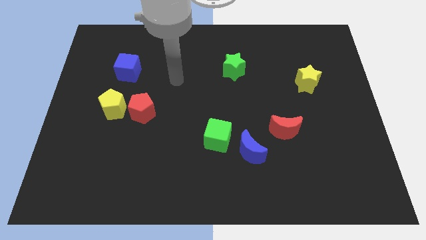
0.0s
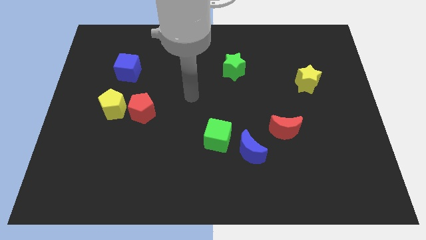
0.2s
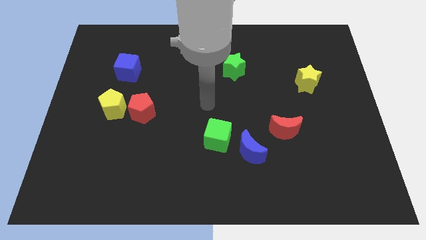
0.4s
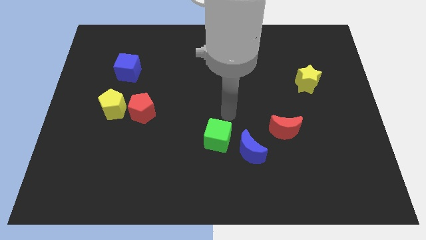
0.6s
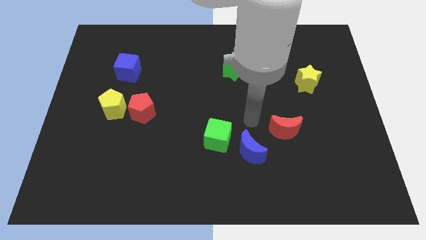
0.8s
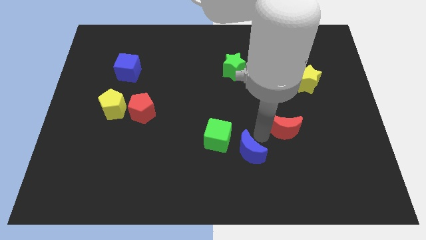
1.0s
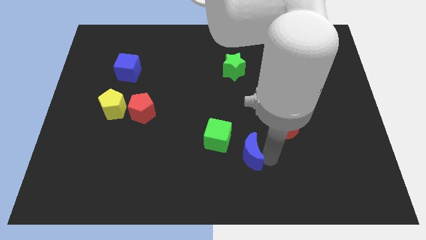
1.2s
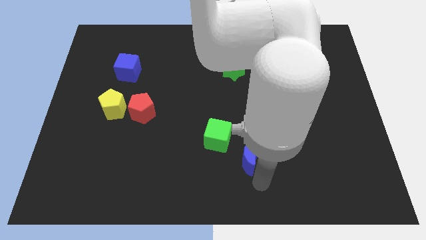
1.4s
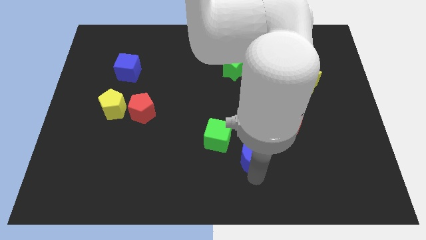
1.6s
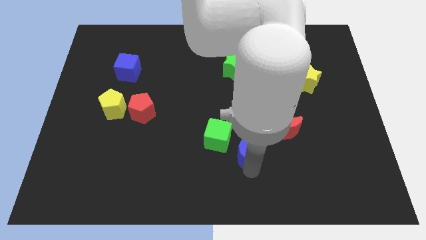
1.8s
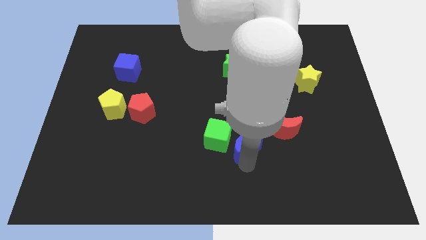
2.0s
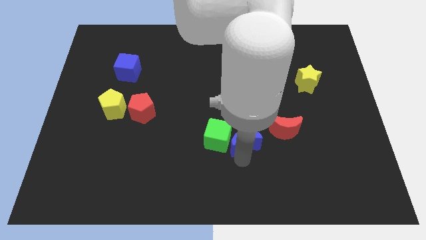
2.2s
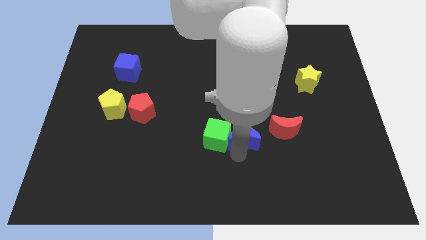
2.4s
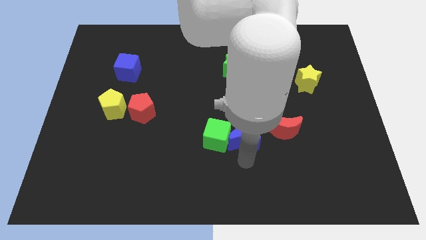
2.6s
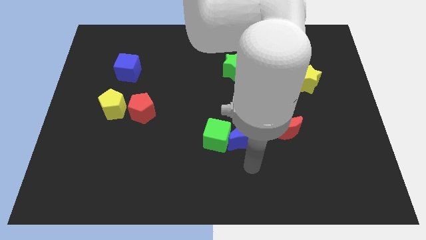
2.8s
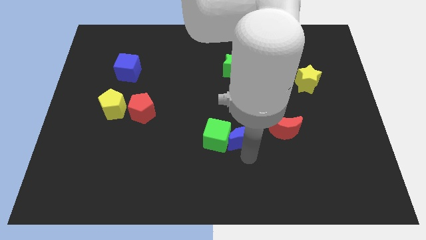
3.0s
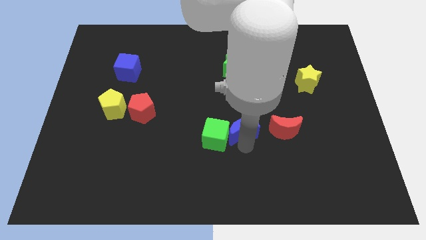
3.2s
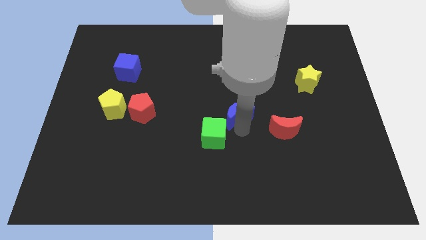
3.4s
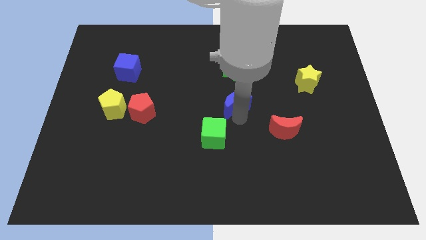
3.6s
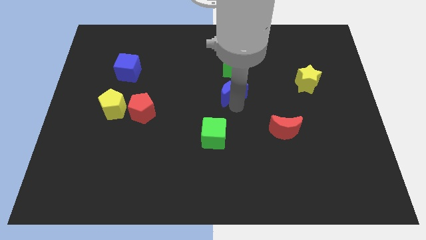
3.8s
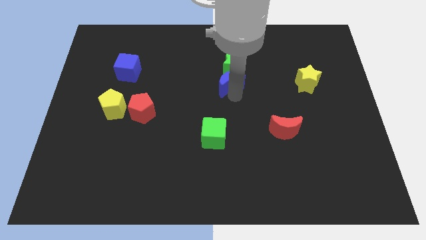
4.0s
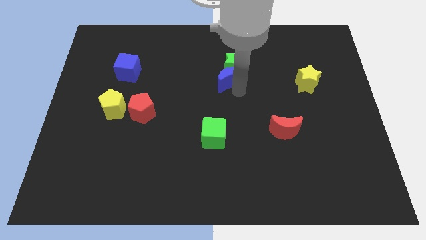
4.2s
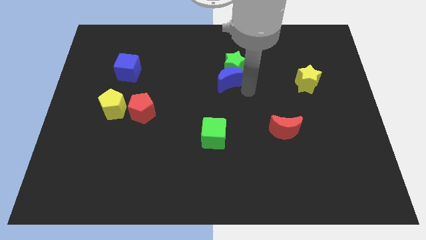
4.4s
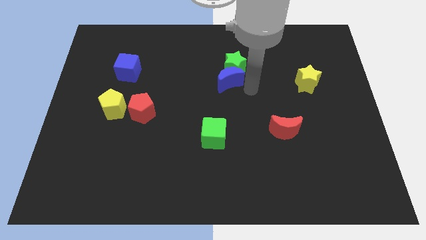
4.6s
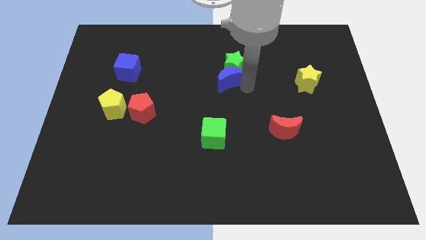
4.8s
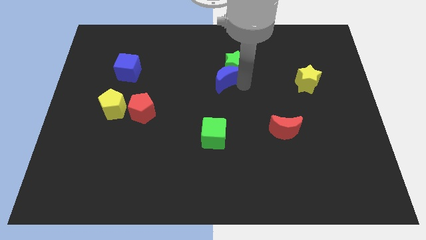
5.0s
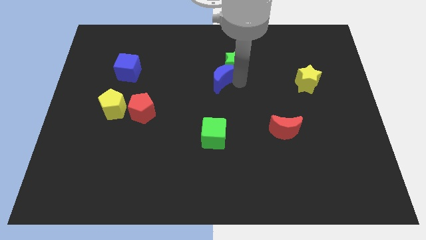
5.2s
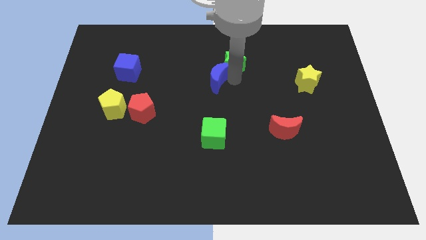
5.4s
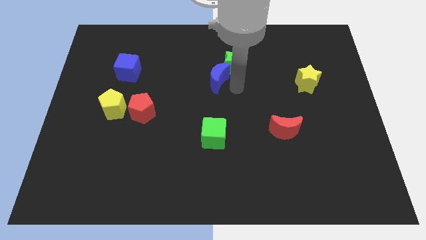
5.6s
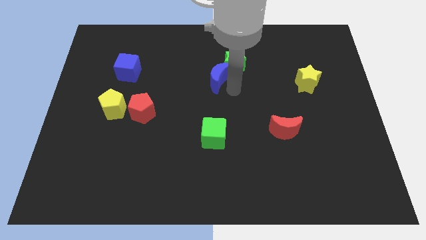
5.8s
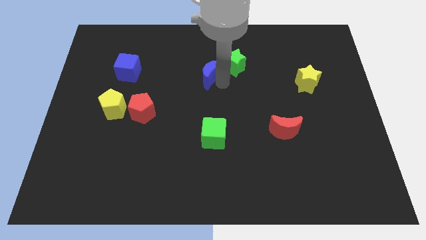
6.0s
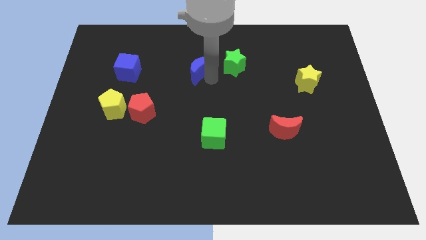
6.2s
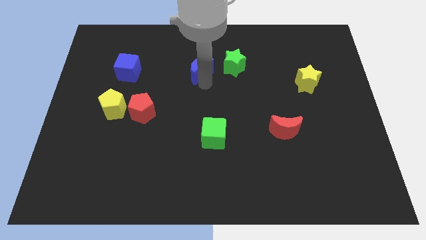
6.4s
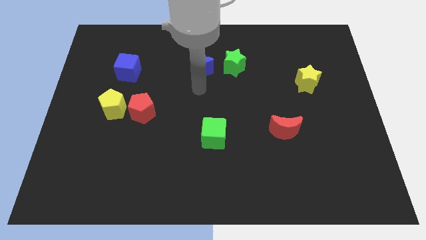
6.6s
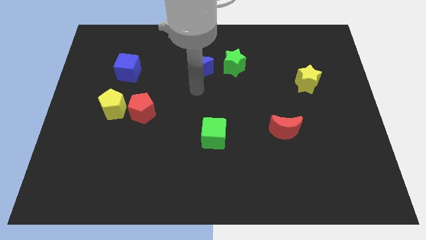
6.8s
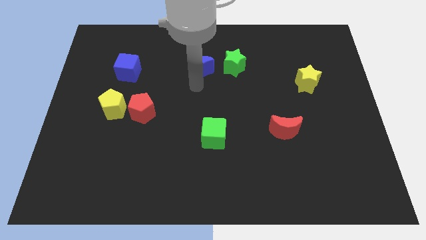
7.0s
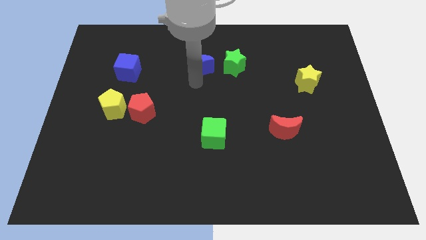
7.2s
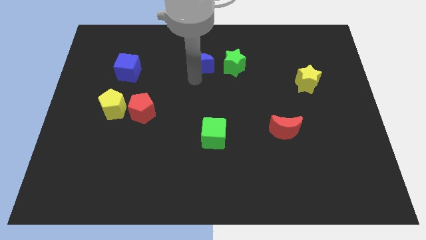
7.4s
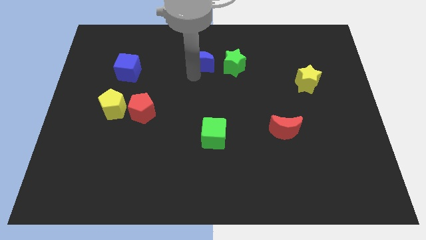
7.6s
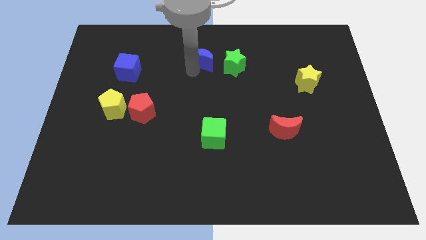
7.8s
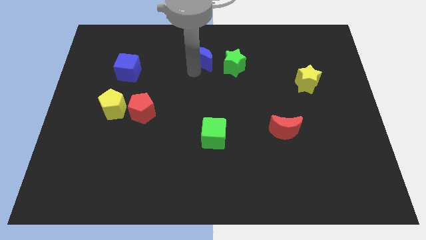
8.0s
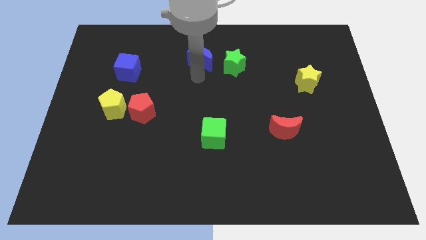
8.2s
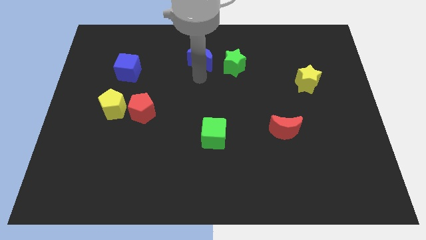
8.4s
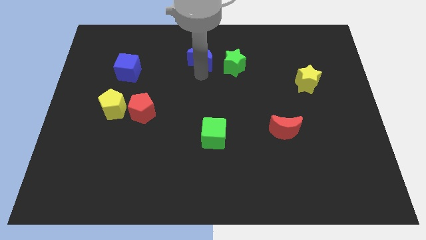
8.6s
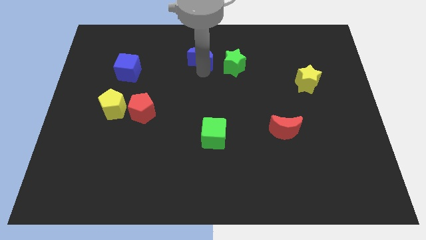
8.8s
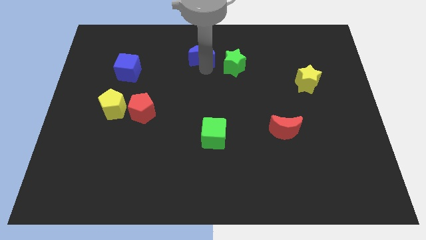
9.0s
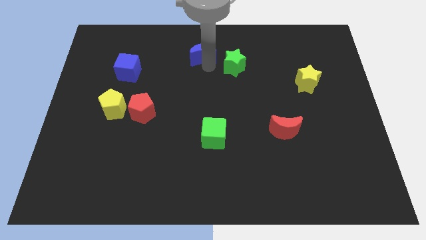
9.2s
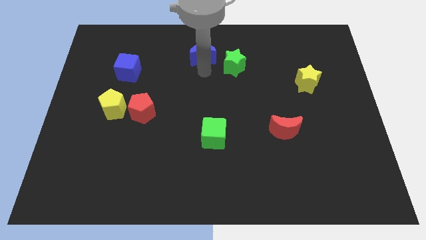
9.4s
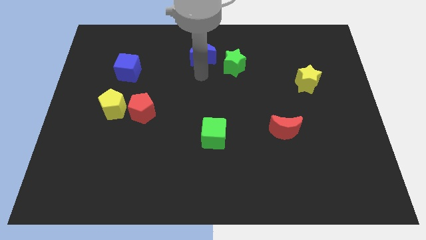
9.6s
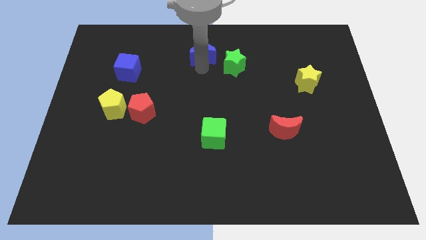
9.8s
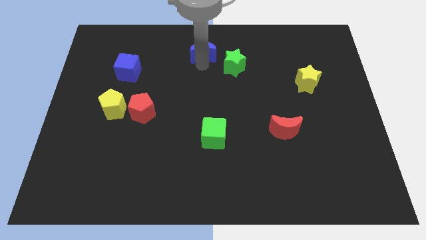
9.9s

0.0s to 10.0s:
slide the blue moon to the top

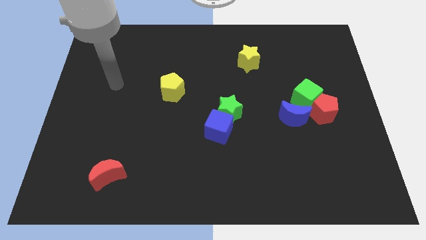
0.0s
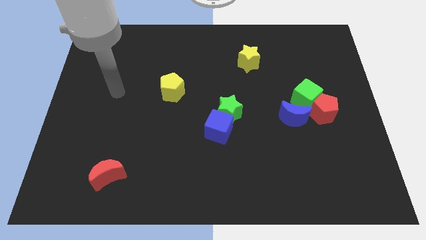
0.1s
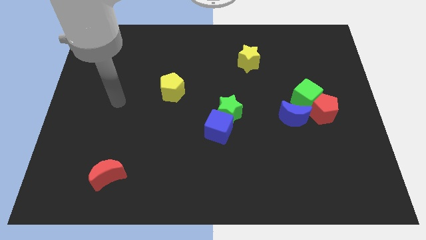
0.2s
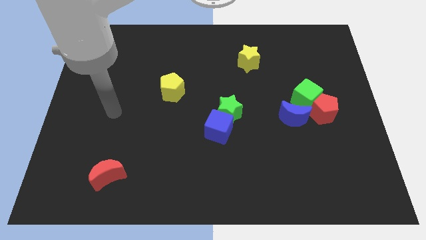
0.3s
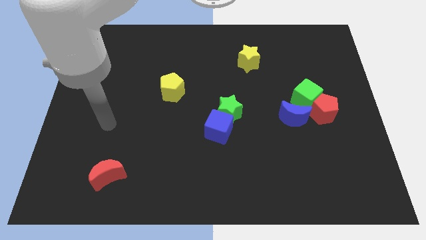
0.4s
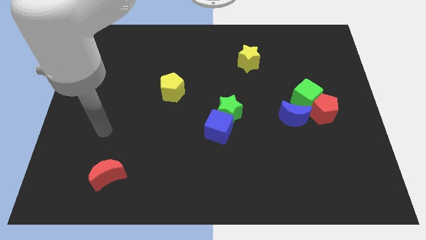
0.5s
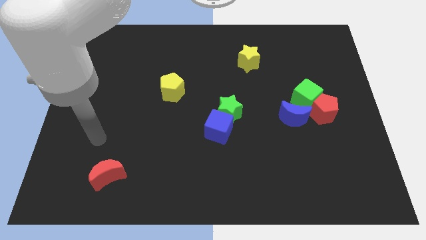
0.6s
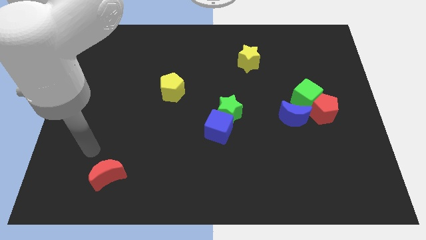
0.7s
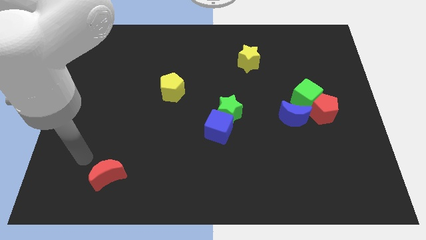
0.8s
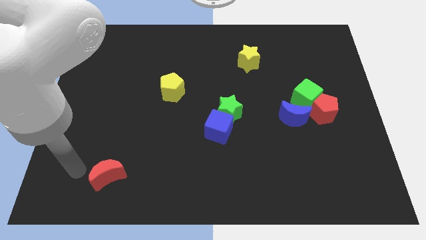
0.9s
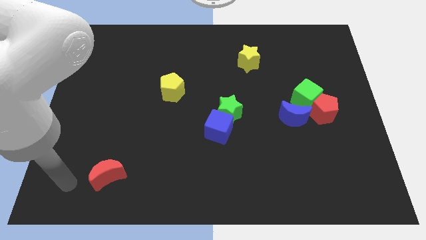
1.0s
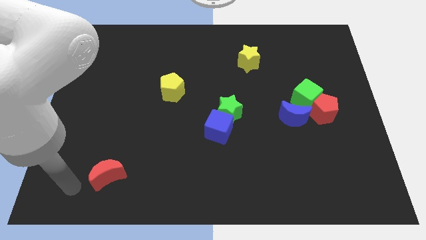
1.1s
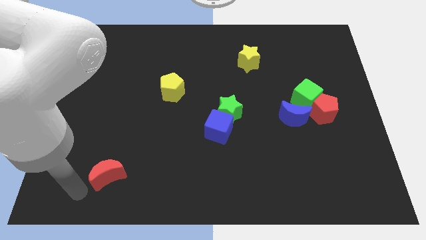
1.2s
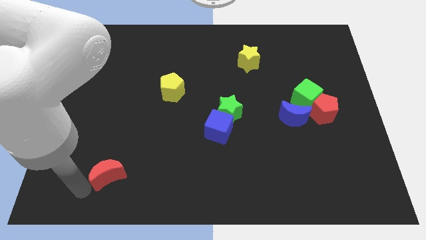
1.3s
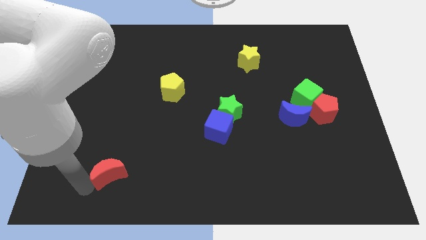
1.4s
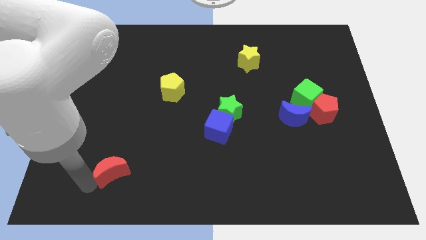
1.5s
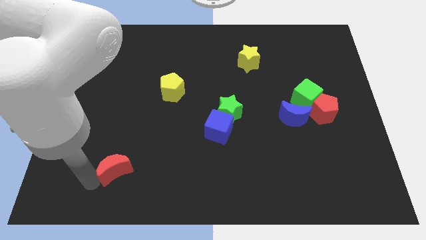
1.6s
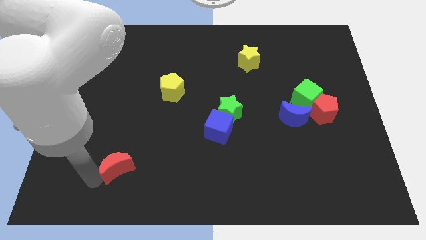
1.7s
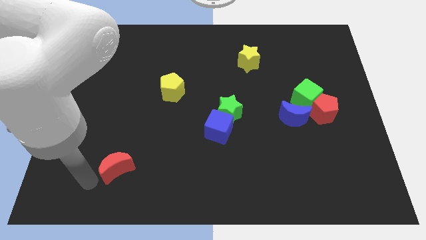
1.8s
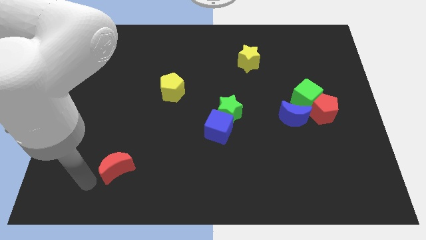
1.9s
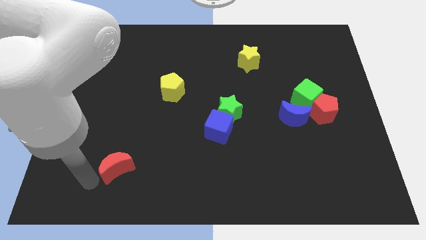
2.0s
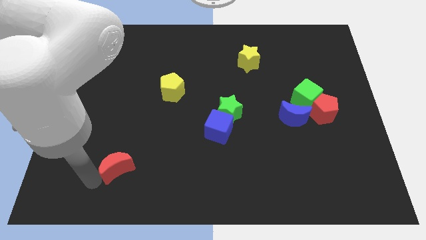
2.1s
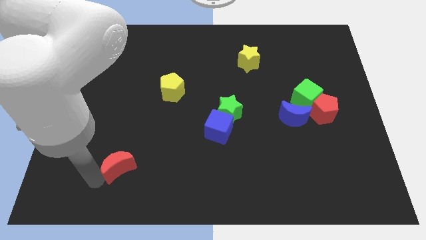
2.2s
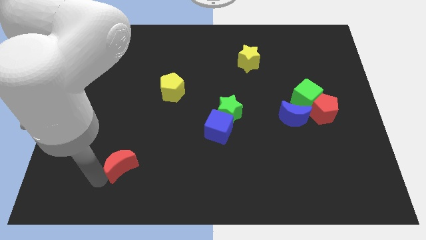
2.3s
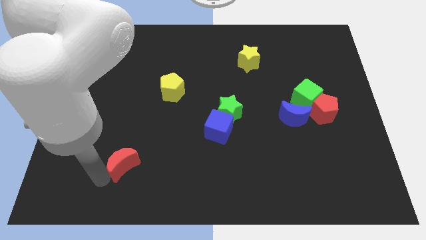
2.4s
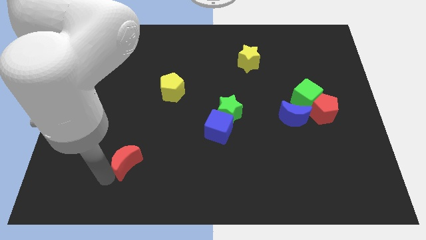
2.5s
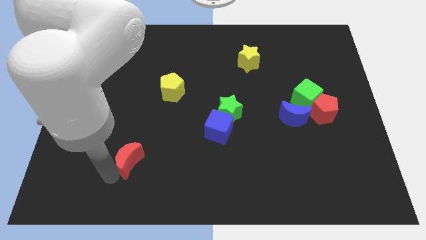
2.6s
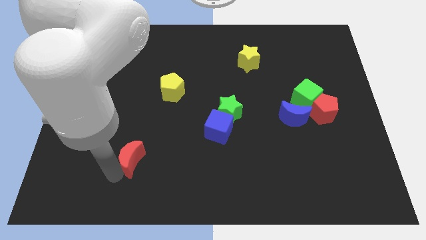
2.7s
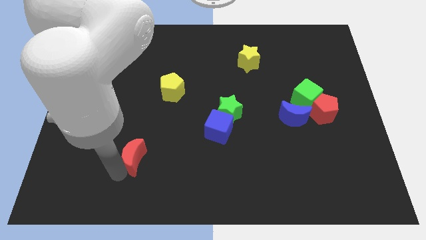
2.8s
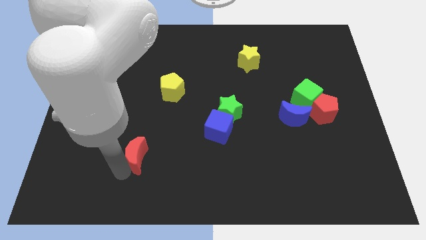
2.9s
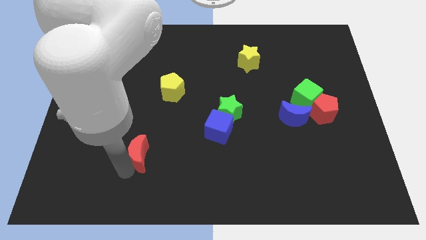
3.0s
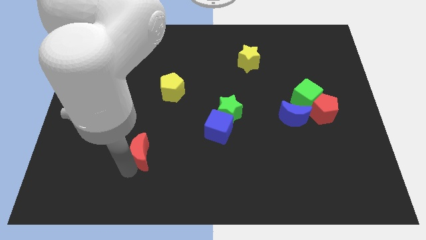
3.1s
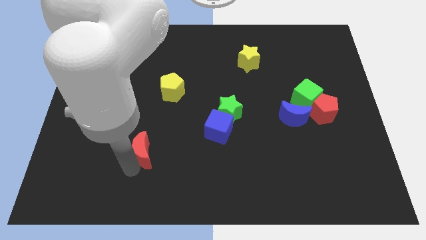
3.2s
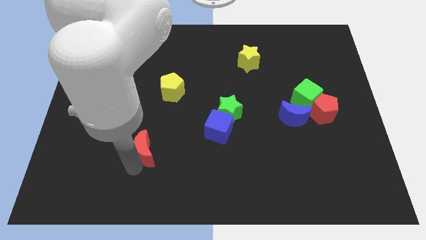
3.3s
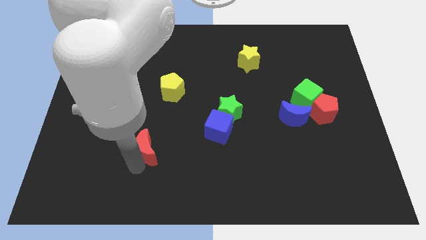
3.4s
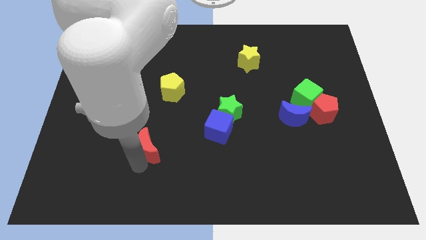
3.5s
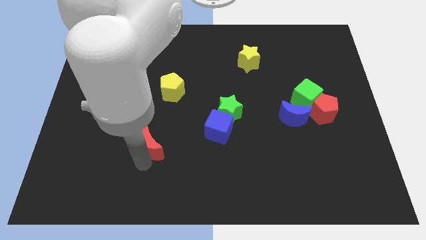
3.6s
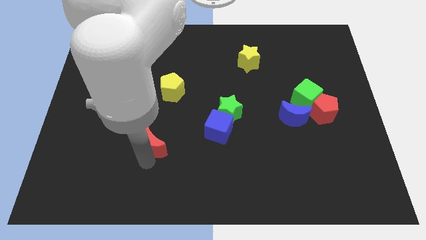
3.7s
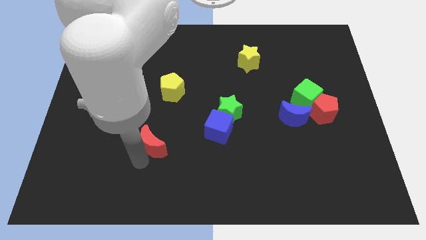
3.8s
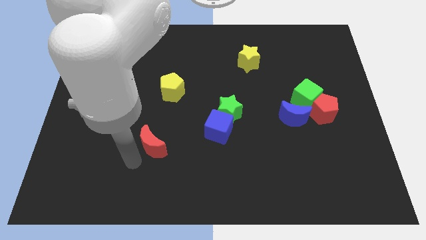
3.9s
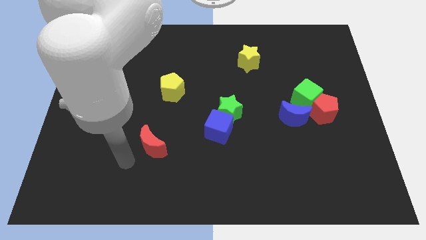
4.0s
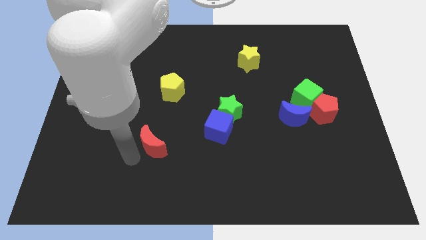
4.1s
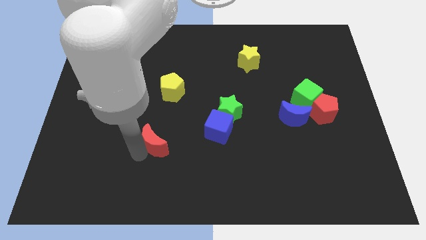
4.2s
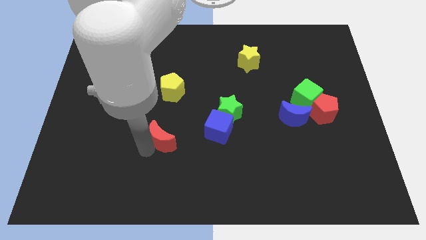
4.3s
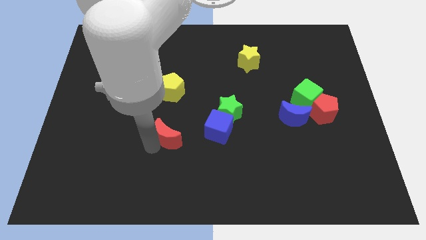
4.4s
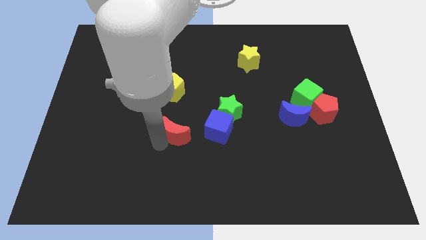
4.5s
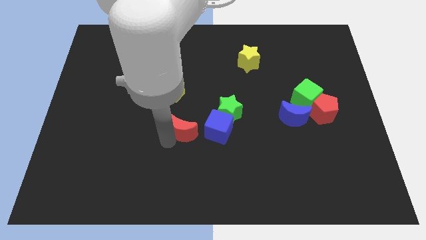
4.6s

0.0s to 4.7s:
slide the red moon to the center of the board
